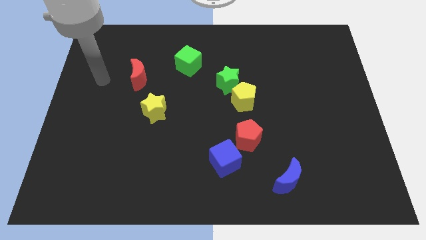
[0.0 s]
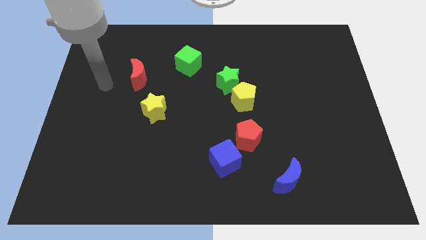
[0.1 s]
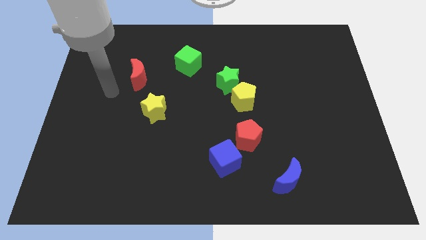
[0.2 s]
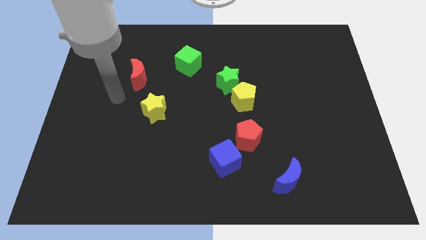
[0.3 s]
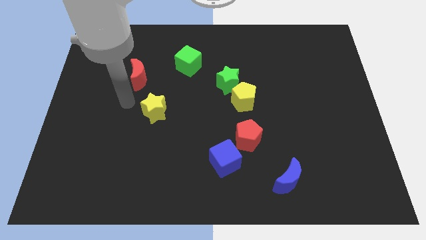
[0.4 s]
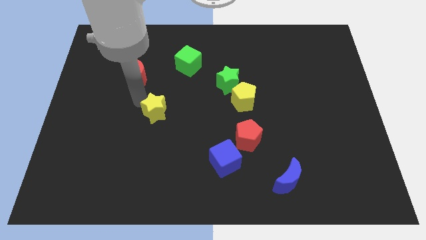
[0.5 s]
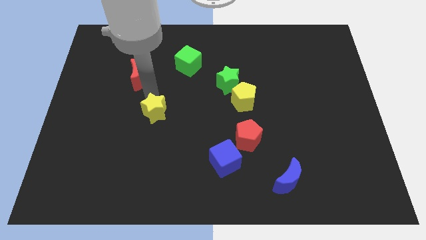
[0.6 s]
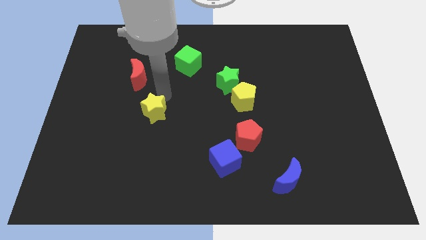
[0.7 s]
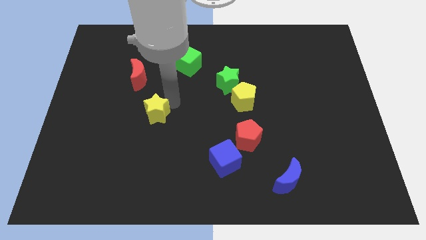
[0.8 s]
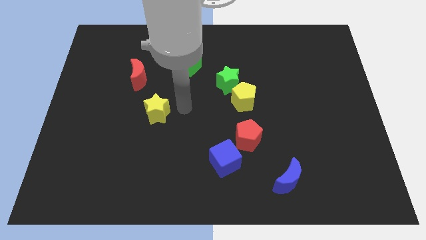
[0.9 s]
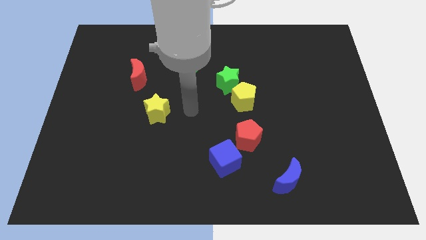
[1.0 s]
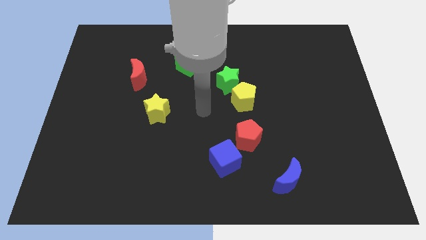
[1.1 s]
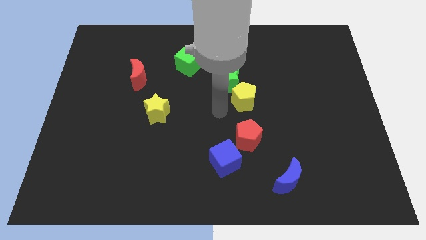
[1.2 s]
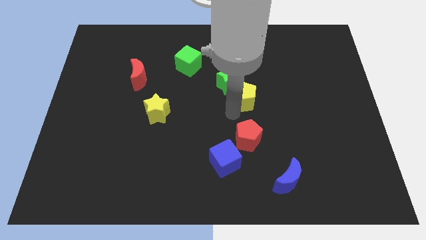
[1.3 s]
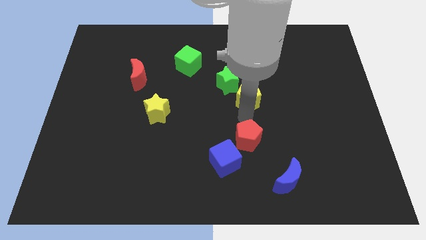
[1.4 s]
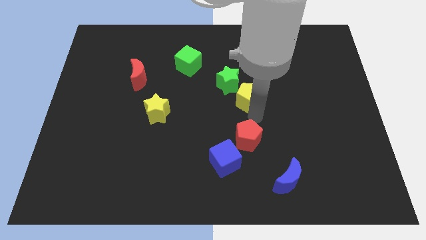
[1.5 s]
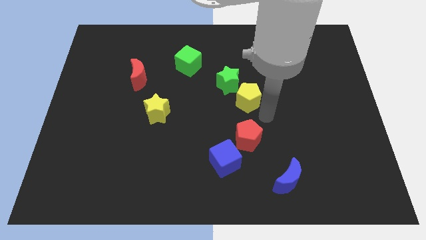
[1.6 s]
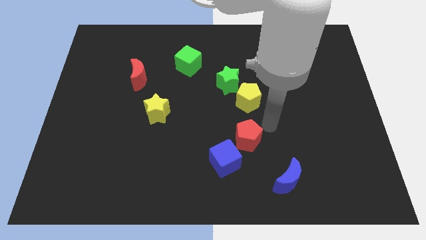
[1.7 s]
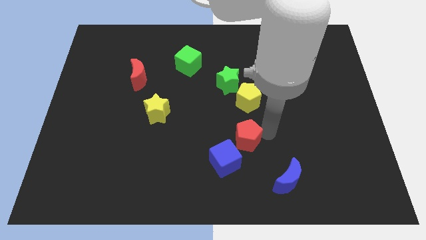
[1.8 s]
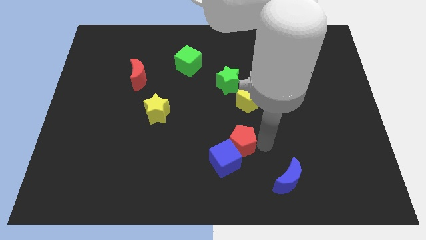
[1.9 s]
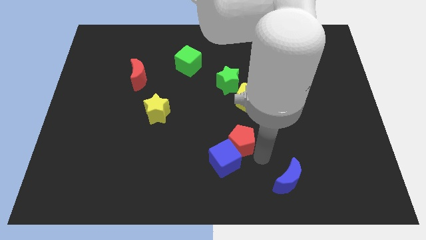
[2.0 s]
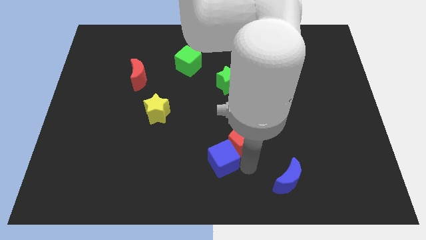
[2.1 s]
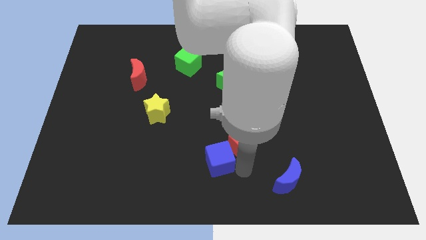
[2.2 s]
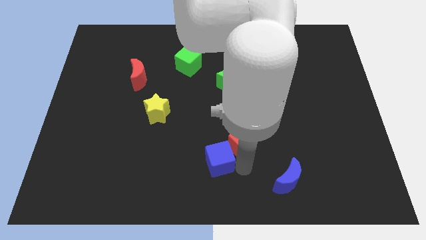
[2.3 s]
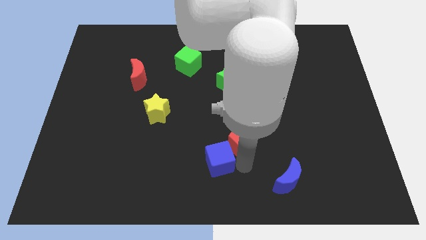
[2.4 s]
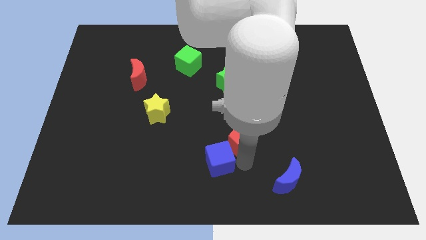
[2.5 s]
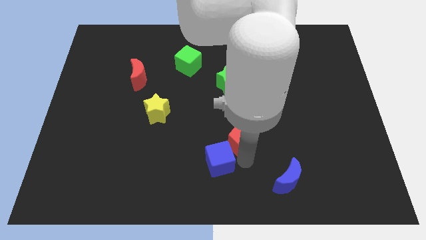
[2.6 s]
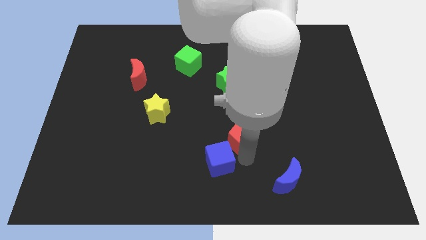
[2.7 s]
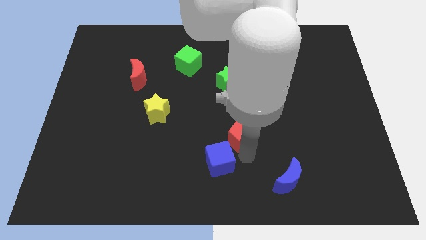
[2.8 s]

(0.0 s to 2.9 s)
push the red pentagon to the center of the board

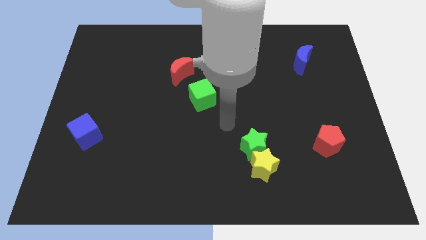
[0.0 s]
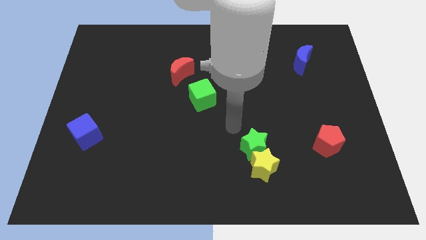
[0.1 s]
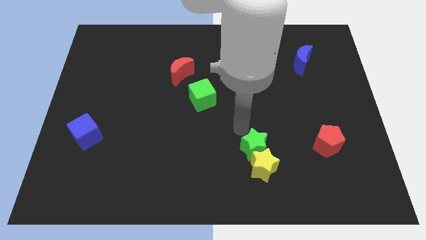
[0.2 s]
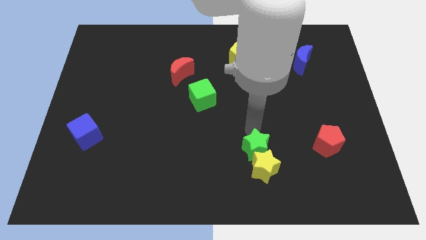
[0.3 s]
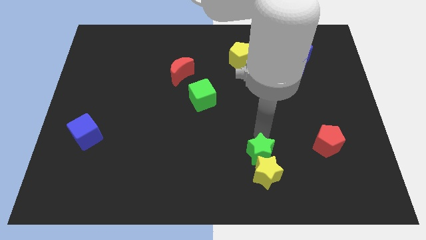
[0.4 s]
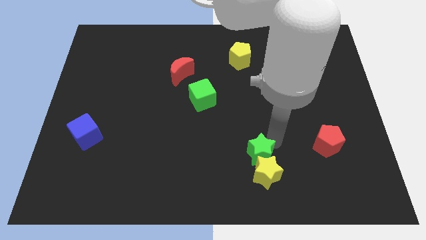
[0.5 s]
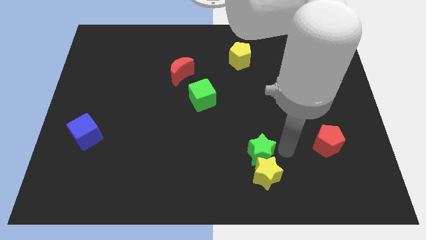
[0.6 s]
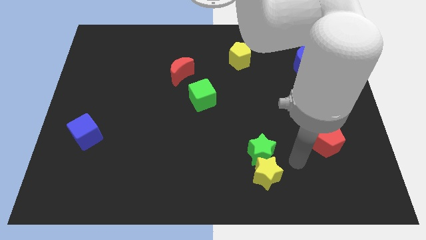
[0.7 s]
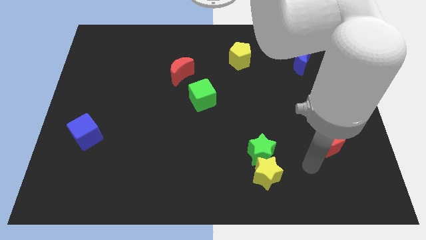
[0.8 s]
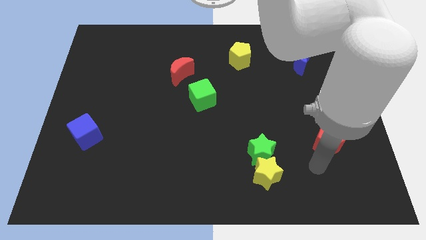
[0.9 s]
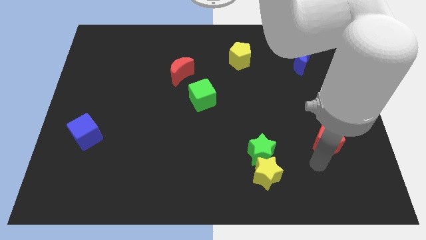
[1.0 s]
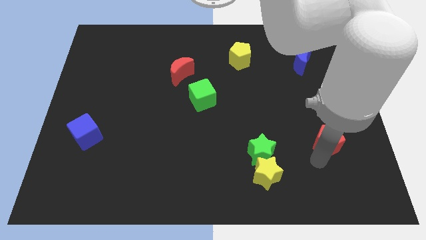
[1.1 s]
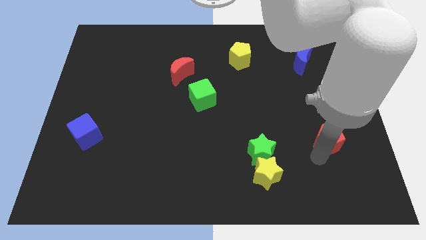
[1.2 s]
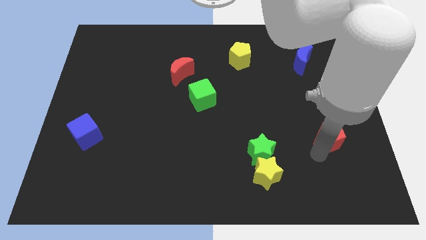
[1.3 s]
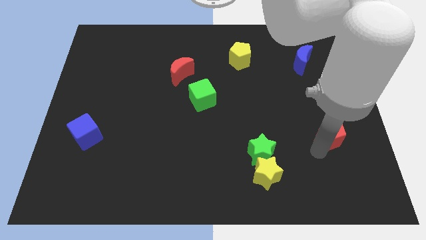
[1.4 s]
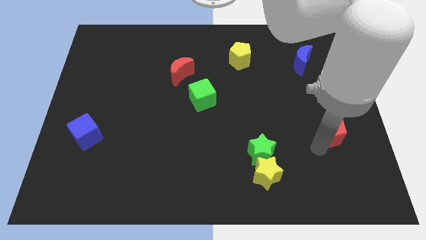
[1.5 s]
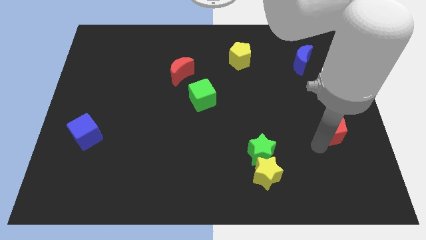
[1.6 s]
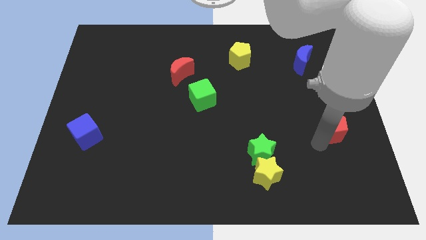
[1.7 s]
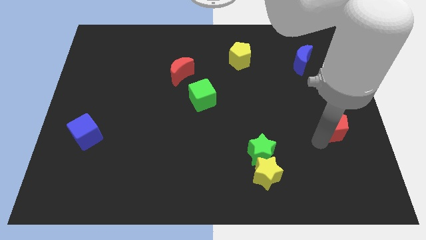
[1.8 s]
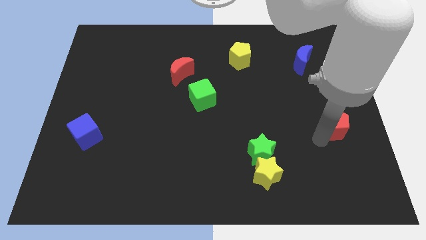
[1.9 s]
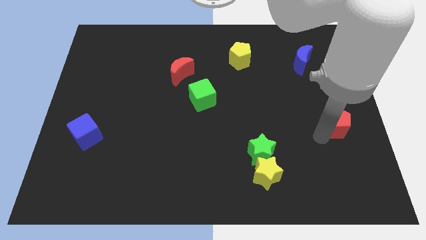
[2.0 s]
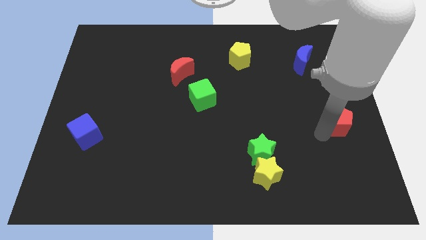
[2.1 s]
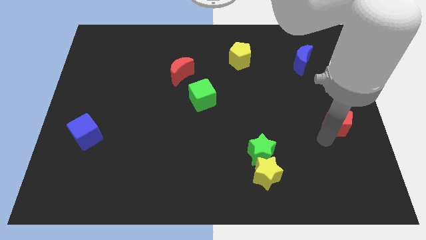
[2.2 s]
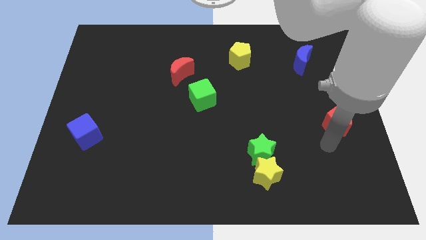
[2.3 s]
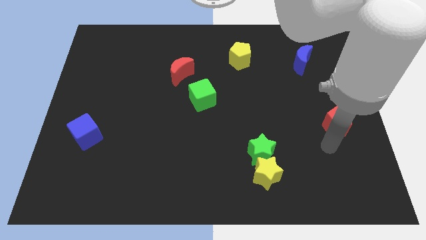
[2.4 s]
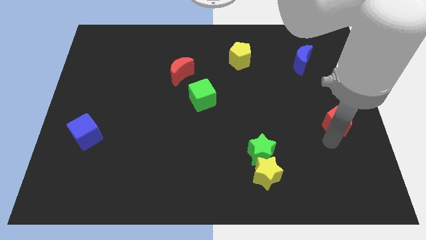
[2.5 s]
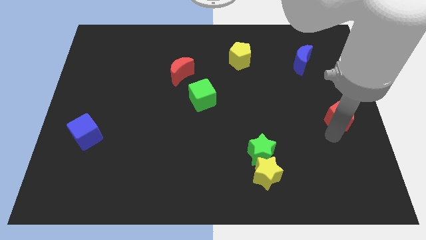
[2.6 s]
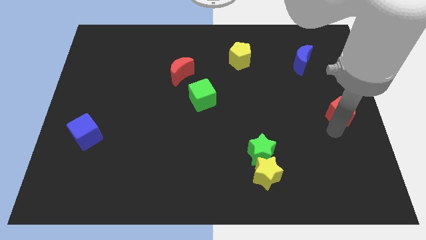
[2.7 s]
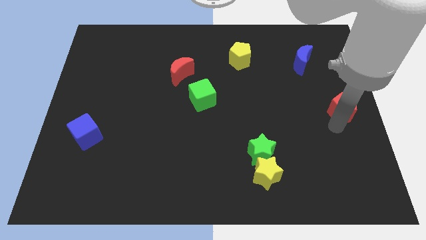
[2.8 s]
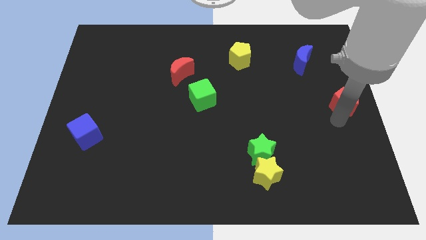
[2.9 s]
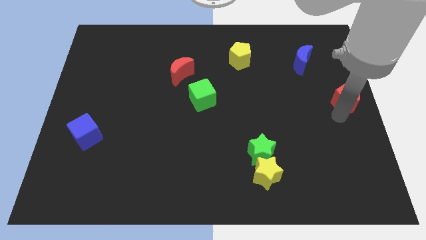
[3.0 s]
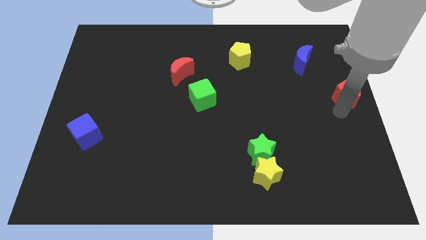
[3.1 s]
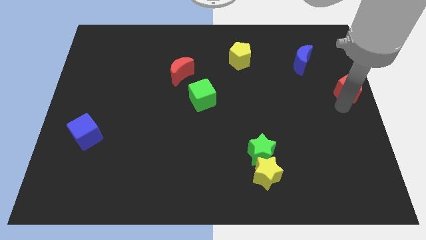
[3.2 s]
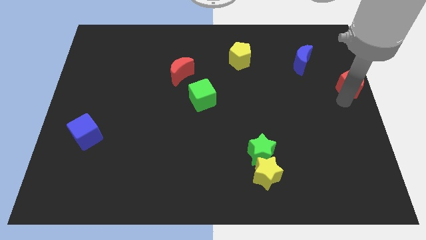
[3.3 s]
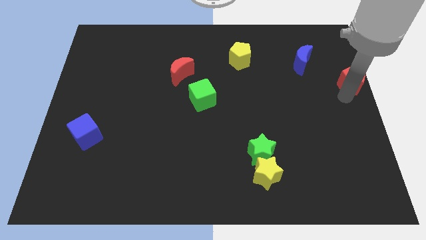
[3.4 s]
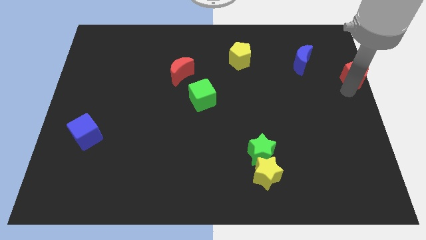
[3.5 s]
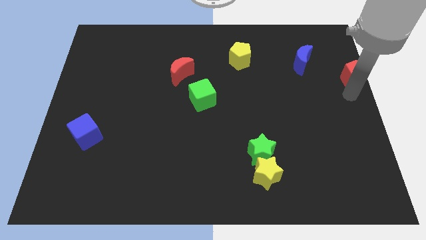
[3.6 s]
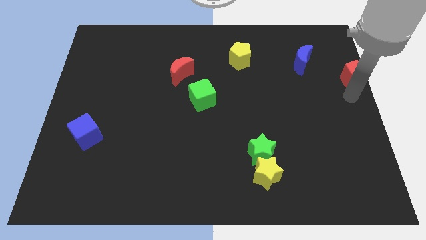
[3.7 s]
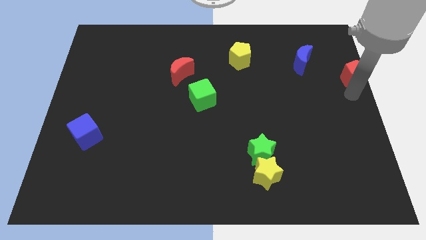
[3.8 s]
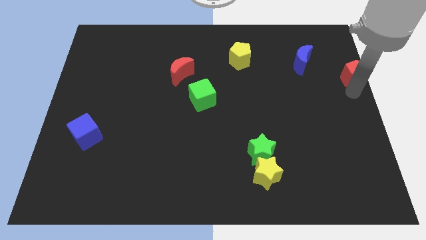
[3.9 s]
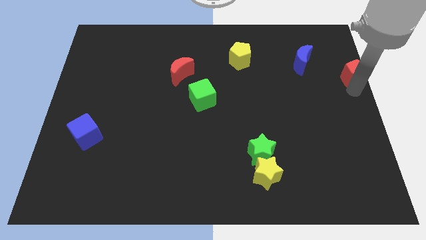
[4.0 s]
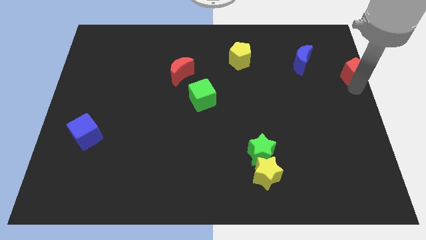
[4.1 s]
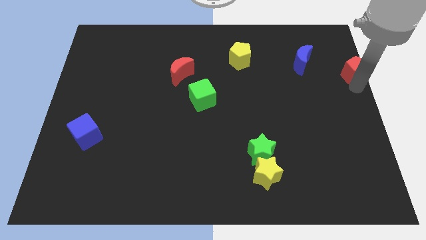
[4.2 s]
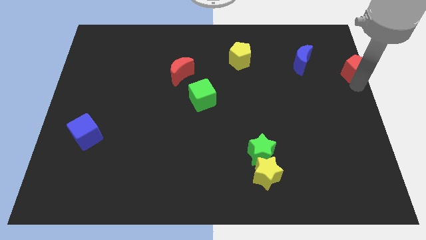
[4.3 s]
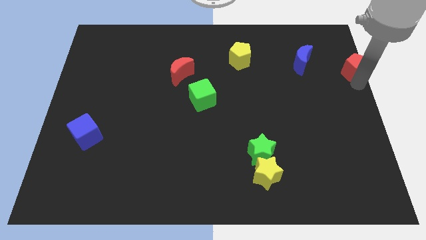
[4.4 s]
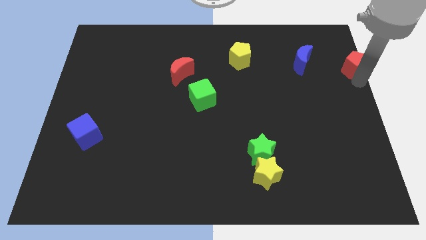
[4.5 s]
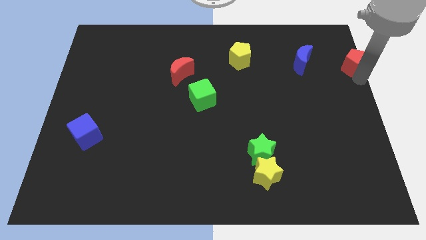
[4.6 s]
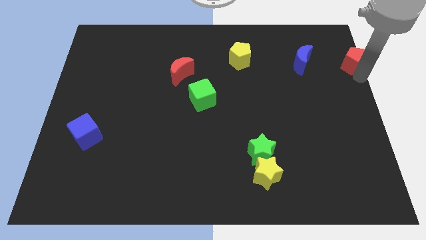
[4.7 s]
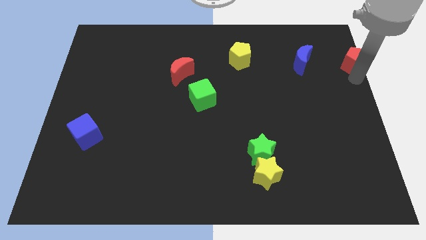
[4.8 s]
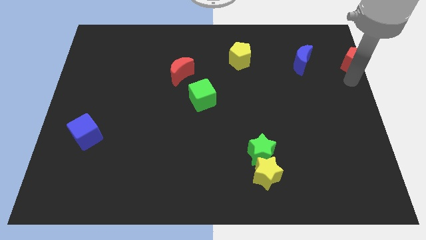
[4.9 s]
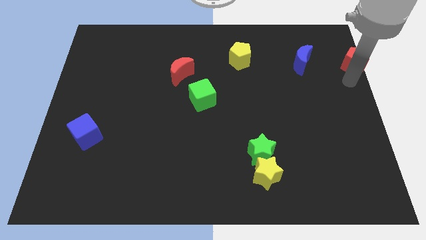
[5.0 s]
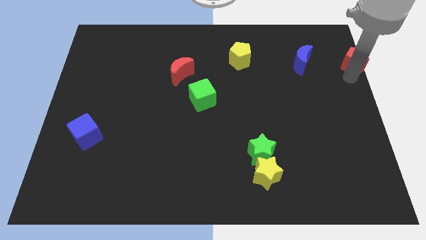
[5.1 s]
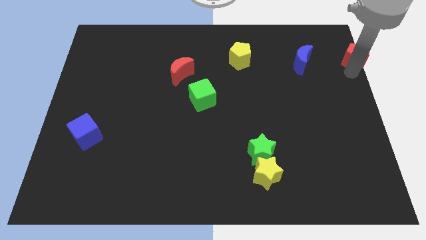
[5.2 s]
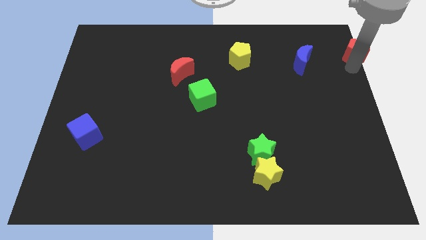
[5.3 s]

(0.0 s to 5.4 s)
slide the red pentagon to the top right corner
